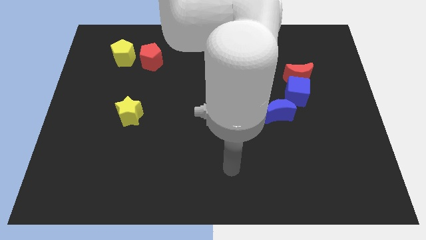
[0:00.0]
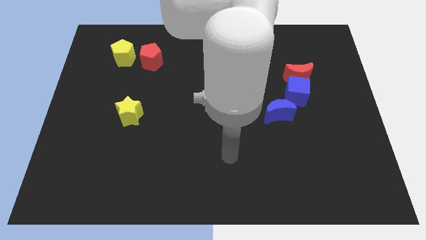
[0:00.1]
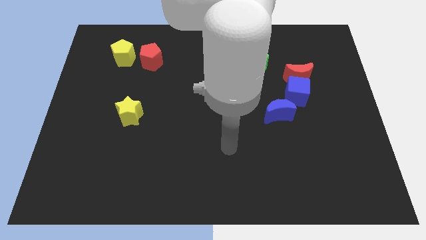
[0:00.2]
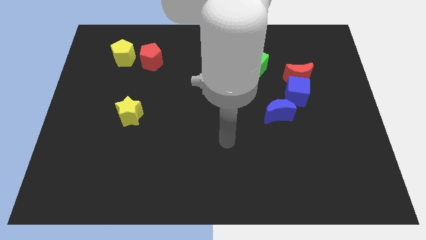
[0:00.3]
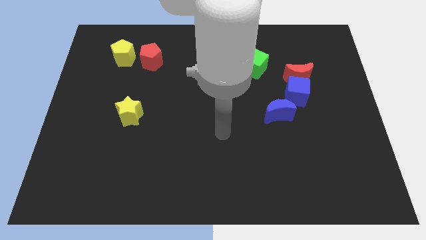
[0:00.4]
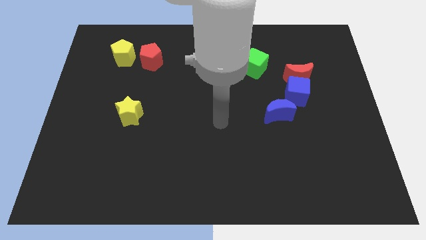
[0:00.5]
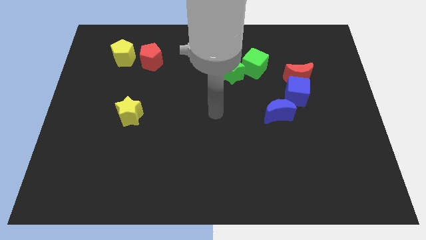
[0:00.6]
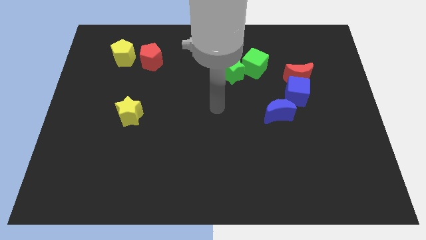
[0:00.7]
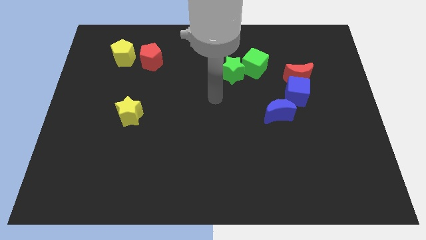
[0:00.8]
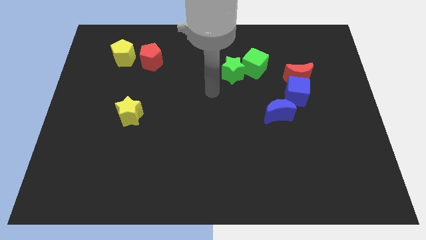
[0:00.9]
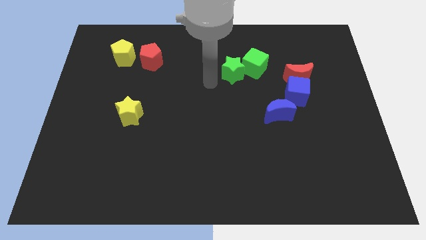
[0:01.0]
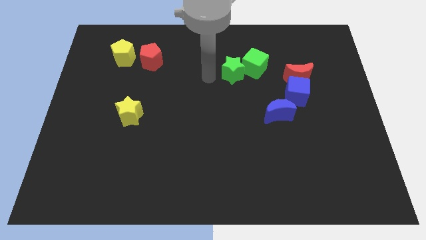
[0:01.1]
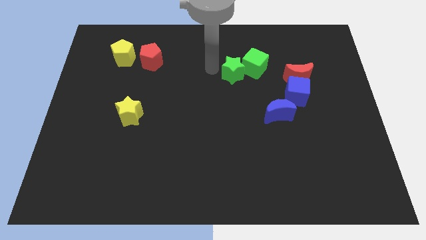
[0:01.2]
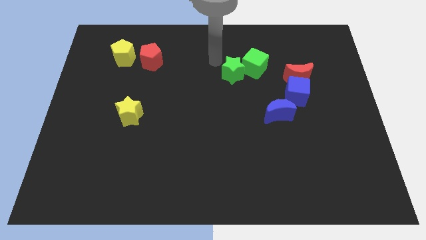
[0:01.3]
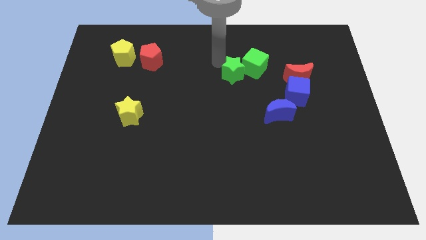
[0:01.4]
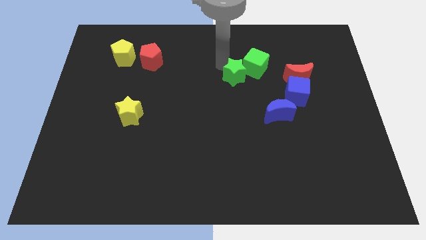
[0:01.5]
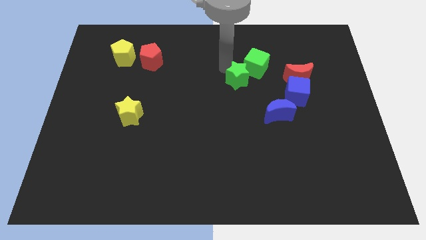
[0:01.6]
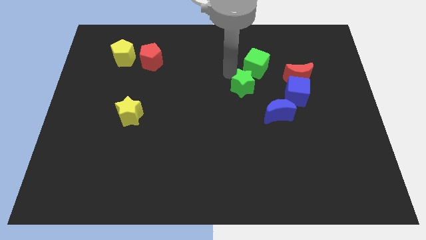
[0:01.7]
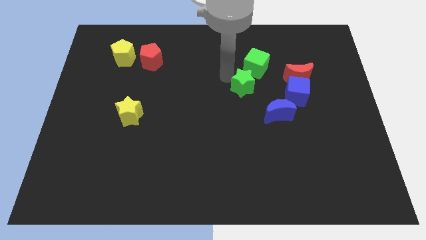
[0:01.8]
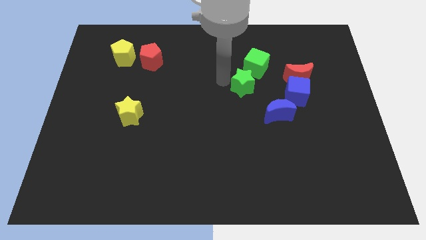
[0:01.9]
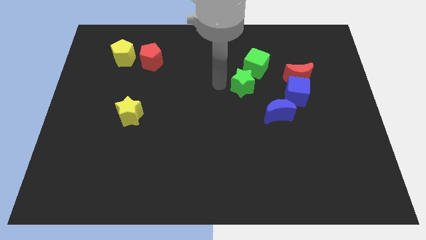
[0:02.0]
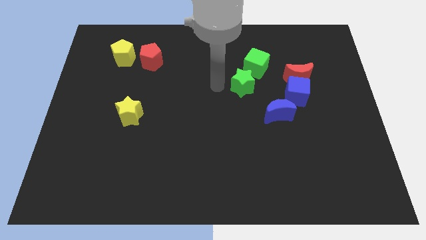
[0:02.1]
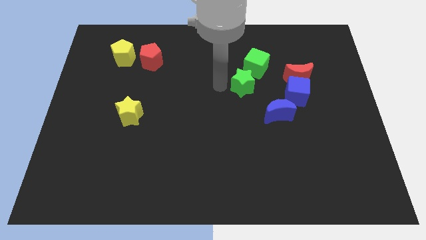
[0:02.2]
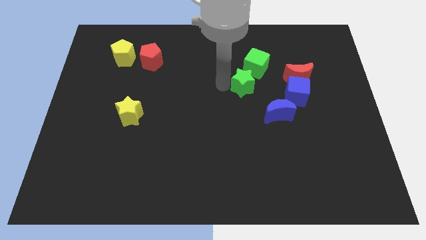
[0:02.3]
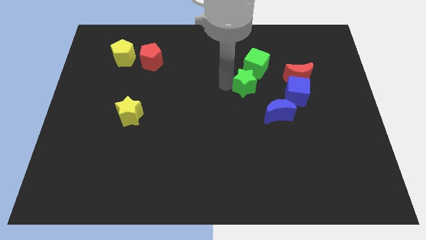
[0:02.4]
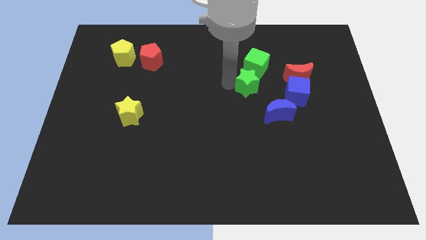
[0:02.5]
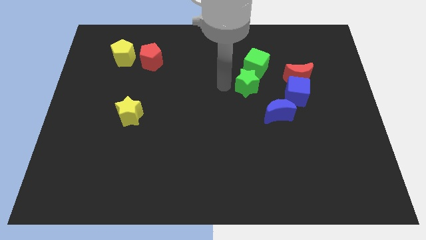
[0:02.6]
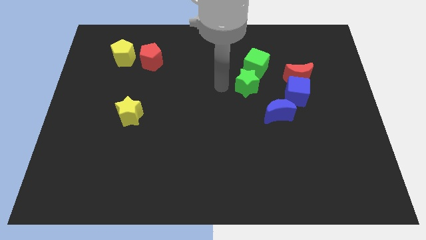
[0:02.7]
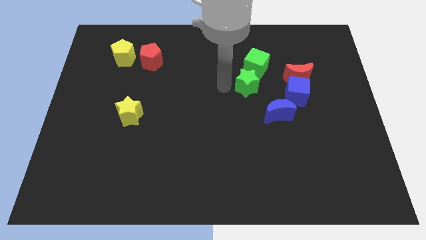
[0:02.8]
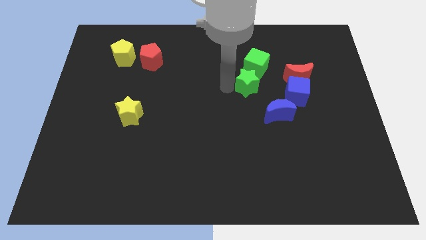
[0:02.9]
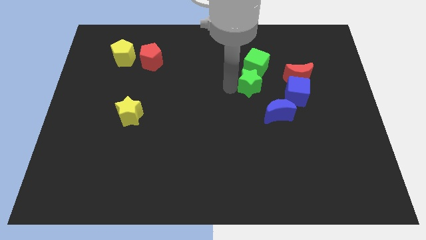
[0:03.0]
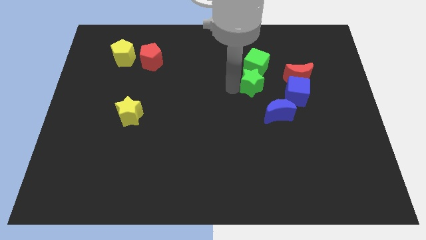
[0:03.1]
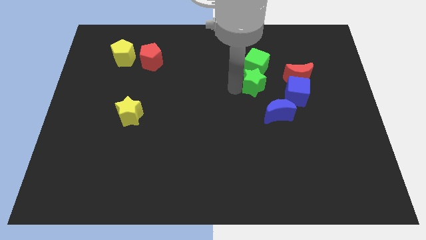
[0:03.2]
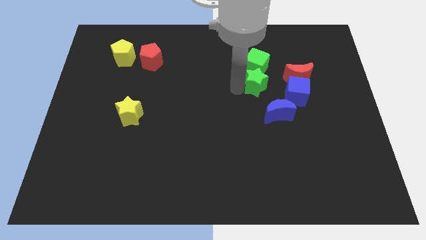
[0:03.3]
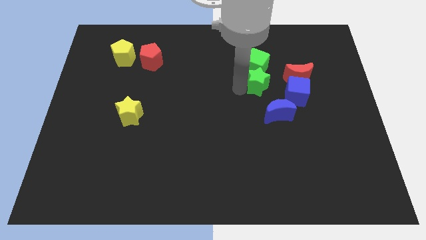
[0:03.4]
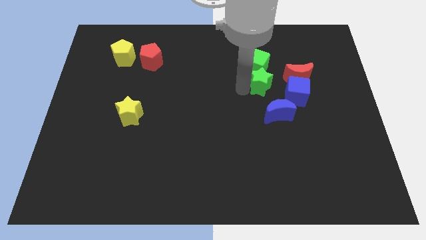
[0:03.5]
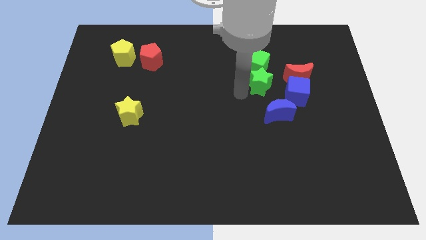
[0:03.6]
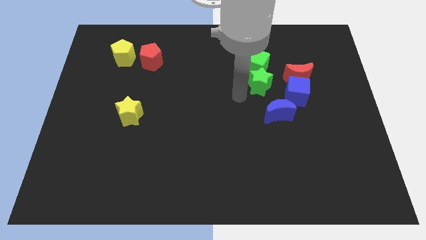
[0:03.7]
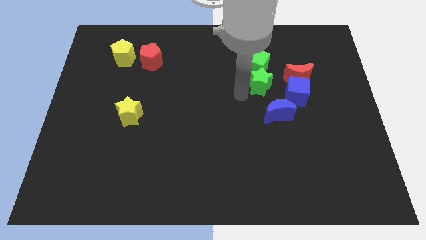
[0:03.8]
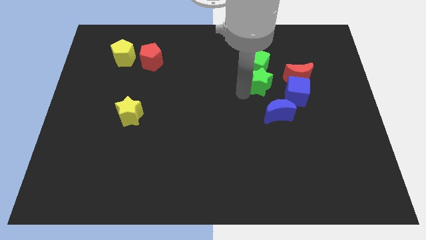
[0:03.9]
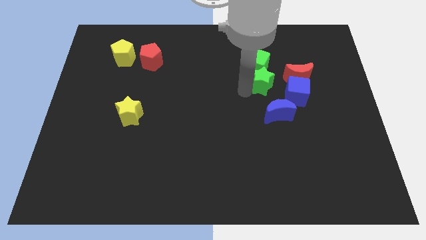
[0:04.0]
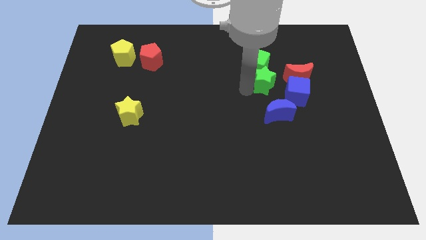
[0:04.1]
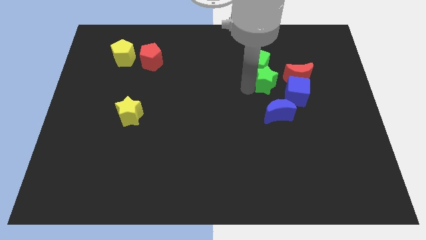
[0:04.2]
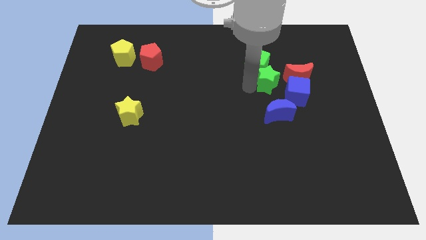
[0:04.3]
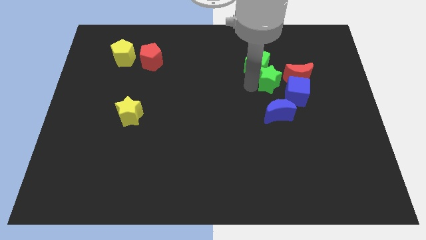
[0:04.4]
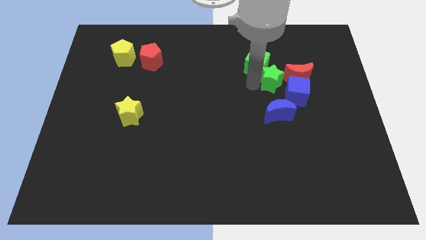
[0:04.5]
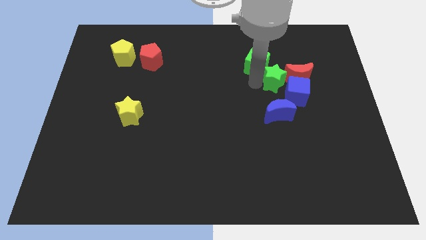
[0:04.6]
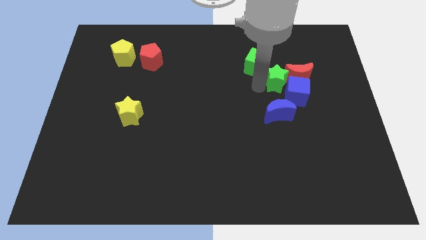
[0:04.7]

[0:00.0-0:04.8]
put the green star to the top left side of the red moon

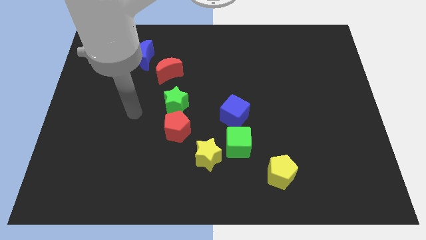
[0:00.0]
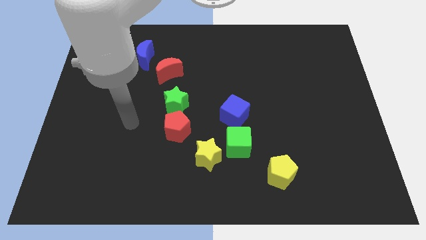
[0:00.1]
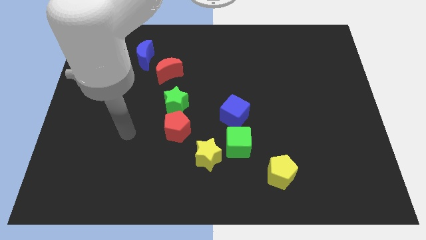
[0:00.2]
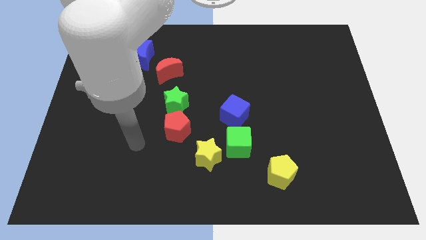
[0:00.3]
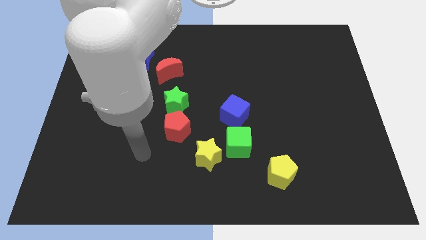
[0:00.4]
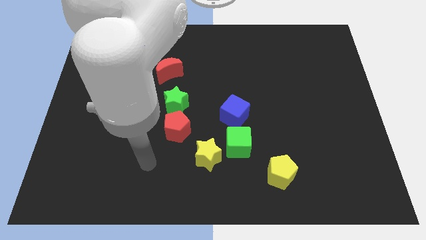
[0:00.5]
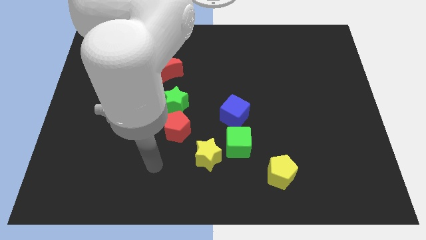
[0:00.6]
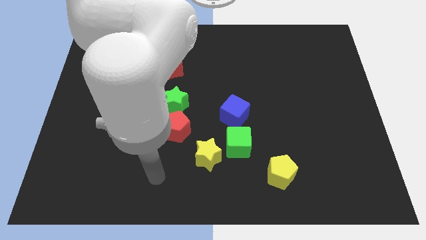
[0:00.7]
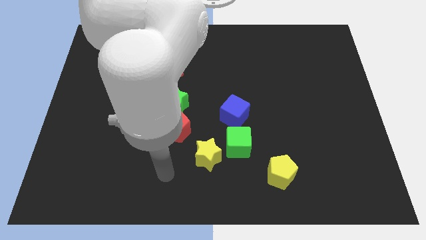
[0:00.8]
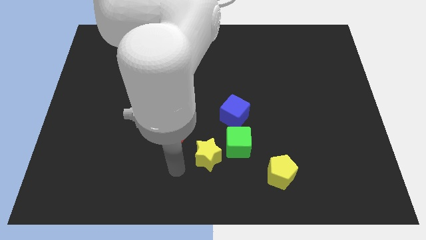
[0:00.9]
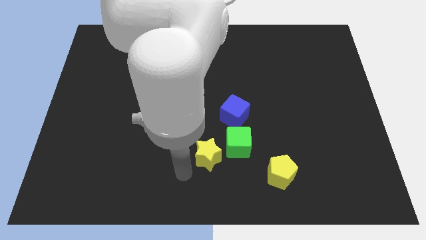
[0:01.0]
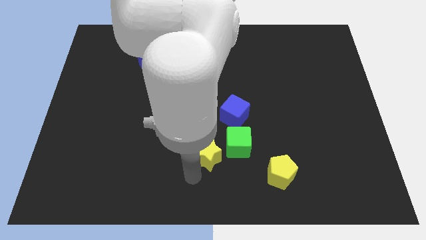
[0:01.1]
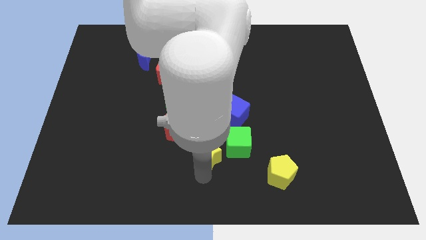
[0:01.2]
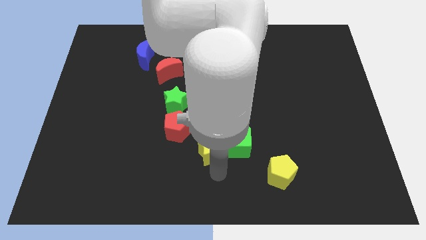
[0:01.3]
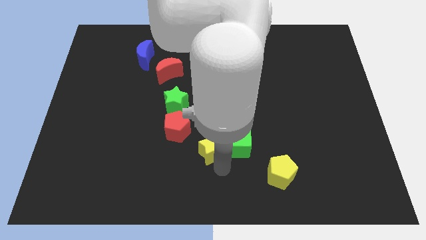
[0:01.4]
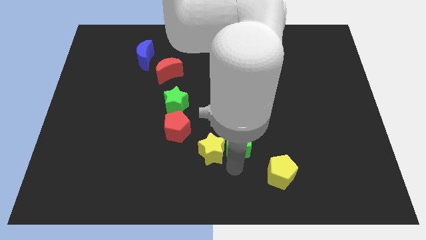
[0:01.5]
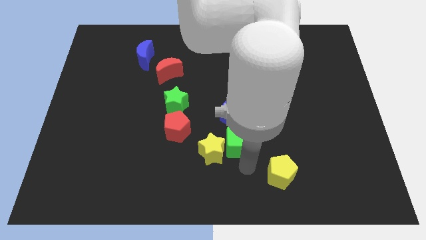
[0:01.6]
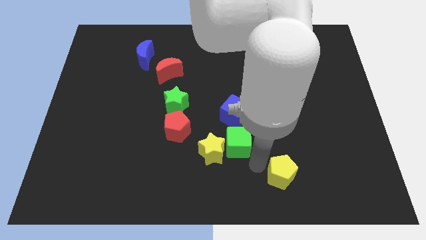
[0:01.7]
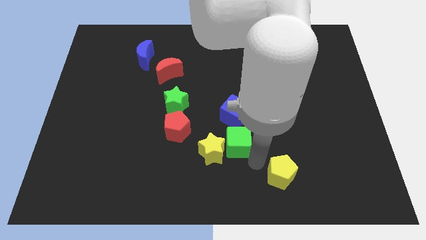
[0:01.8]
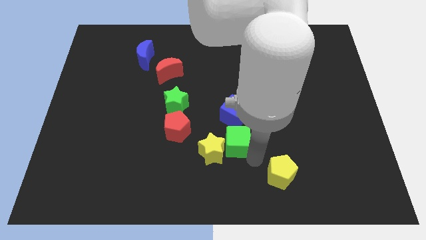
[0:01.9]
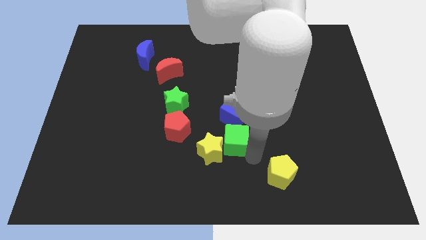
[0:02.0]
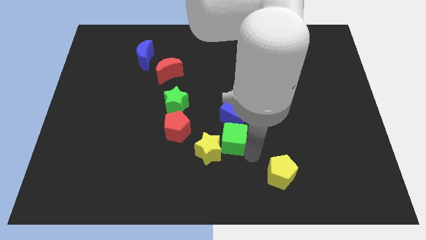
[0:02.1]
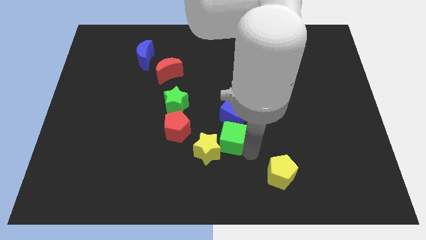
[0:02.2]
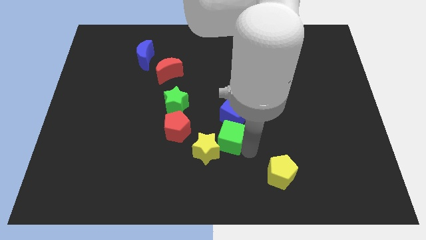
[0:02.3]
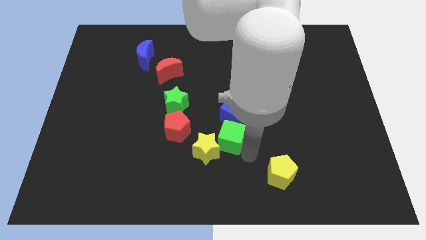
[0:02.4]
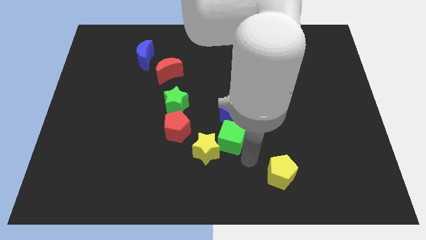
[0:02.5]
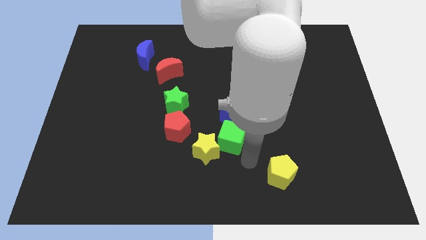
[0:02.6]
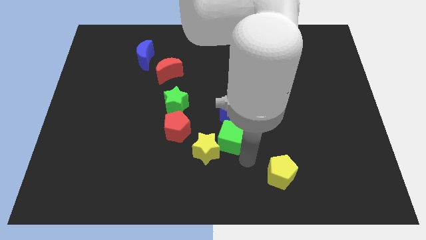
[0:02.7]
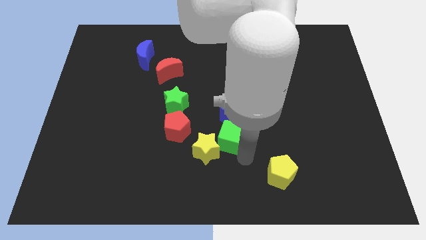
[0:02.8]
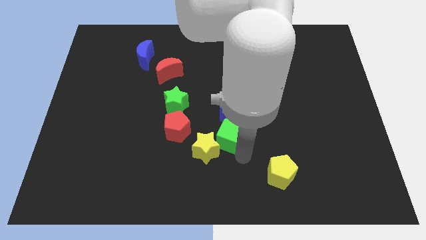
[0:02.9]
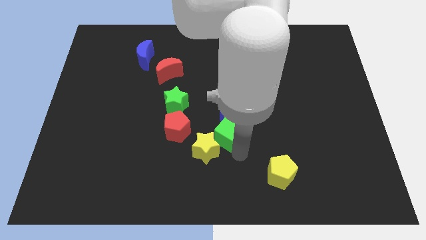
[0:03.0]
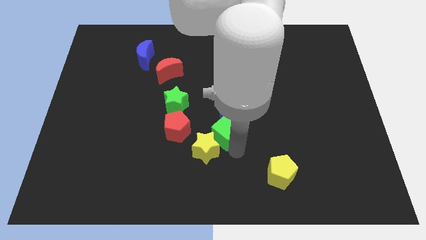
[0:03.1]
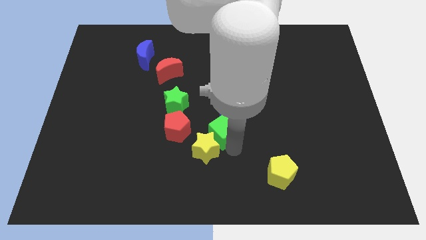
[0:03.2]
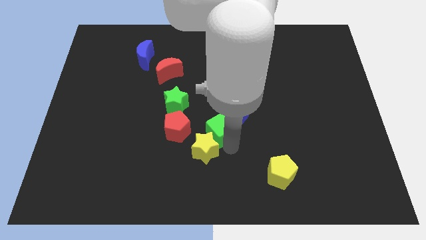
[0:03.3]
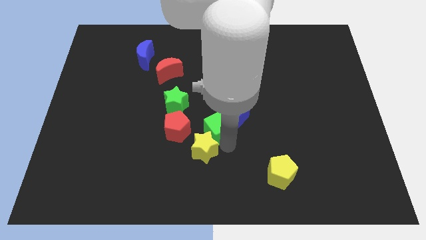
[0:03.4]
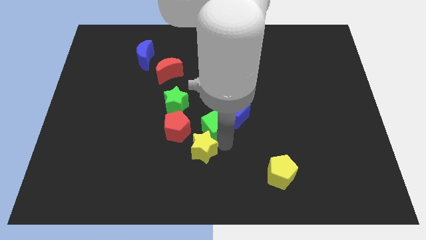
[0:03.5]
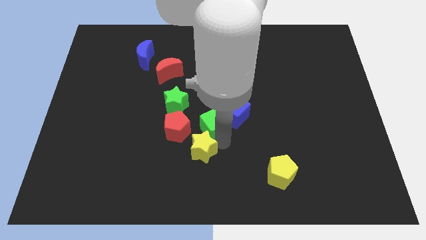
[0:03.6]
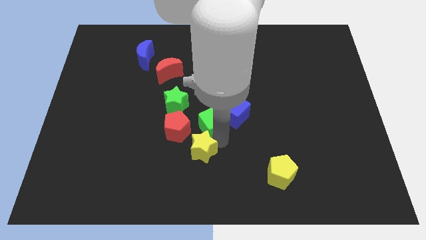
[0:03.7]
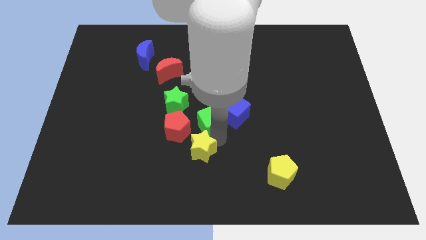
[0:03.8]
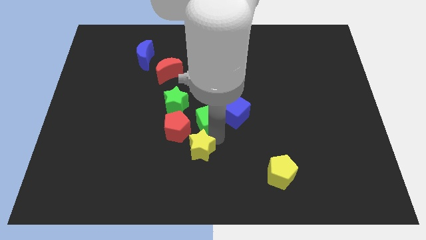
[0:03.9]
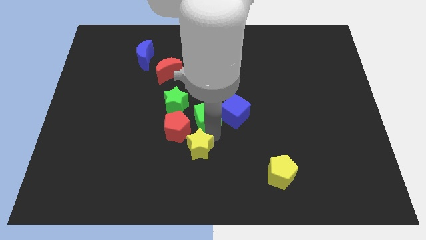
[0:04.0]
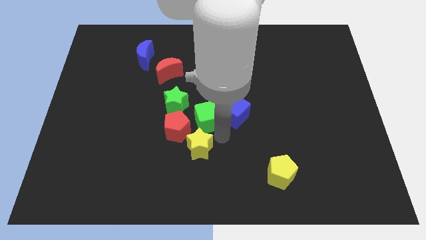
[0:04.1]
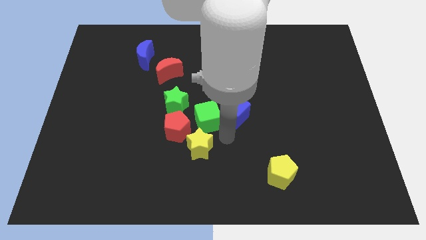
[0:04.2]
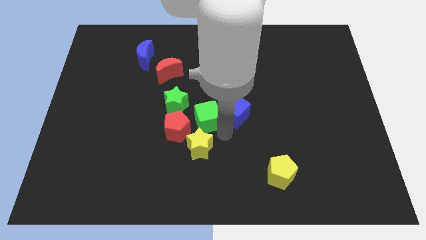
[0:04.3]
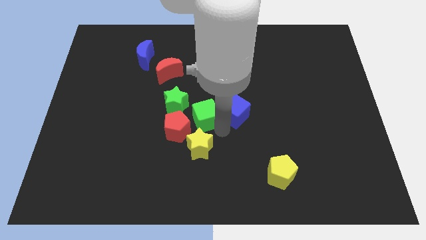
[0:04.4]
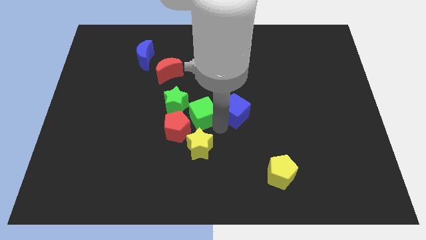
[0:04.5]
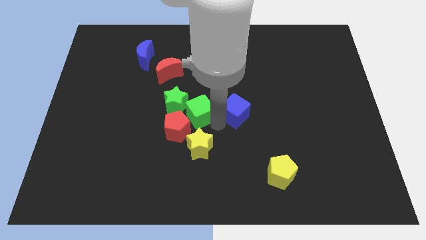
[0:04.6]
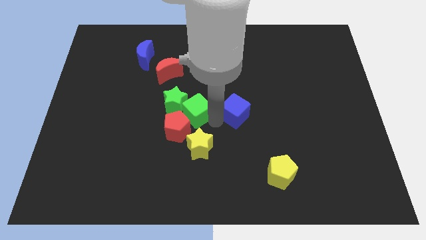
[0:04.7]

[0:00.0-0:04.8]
put the green cube to the top side of the red pentagon
